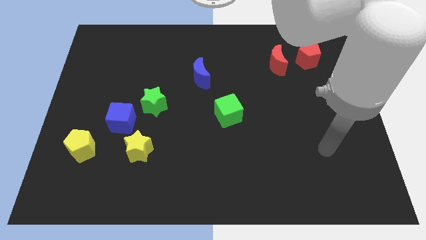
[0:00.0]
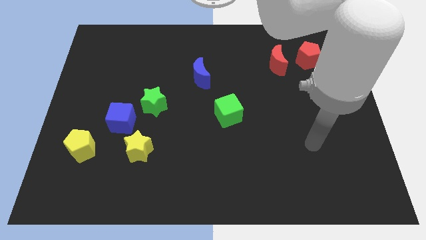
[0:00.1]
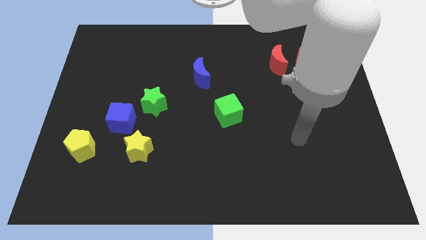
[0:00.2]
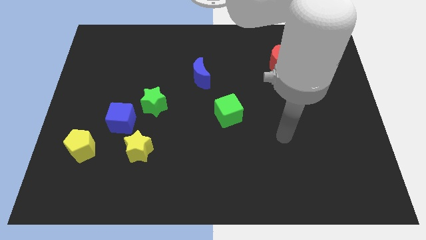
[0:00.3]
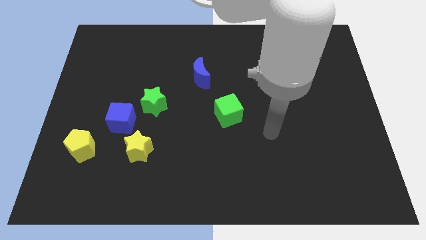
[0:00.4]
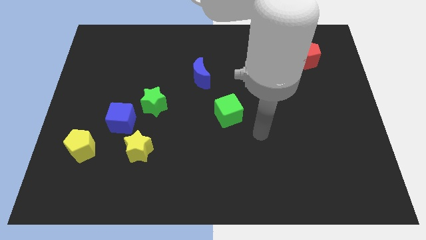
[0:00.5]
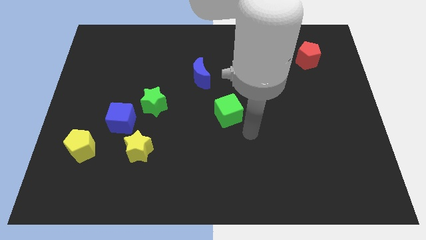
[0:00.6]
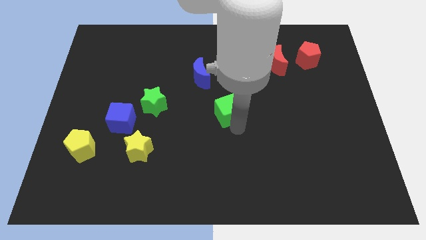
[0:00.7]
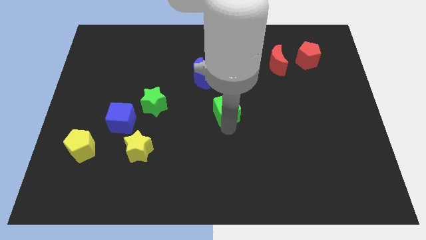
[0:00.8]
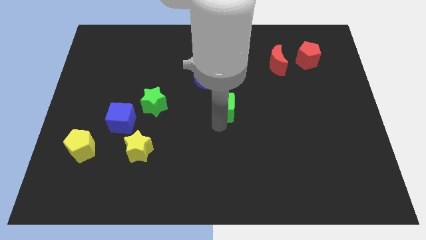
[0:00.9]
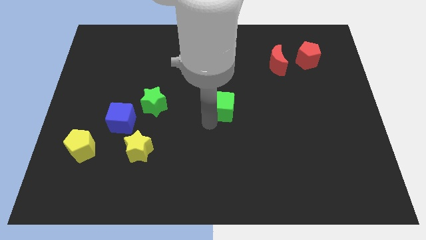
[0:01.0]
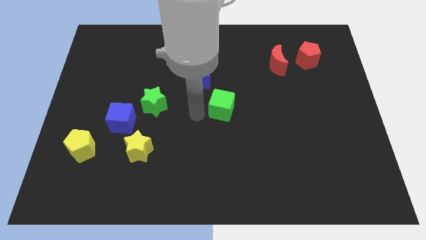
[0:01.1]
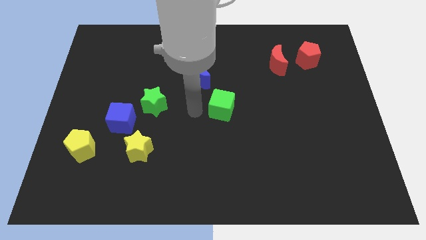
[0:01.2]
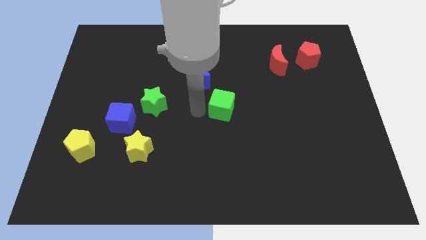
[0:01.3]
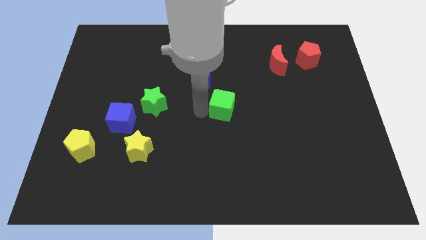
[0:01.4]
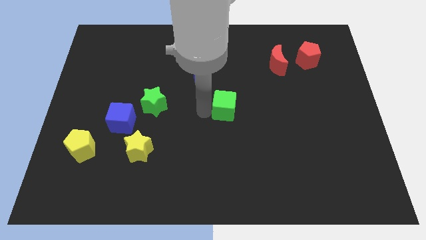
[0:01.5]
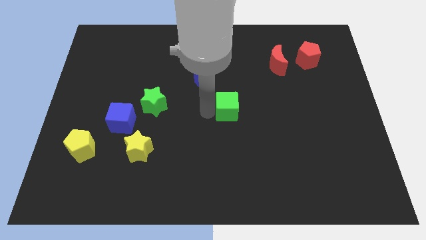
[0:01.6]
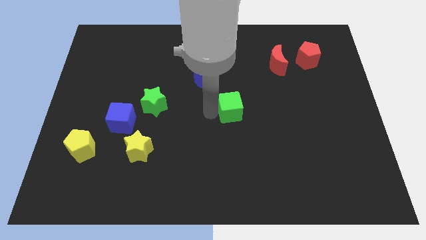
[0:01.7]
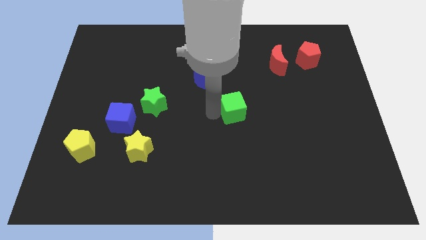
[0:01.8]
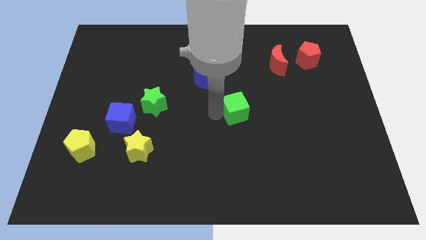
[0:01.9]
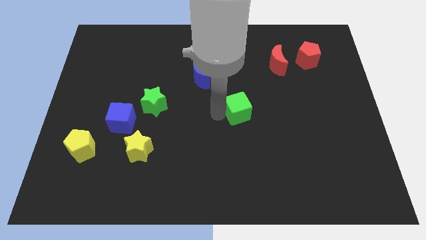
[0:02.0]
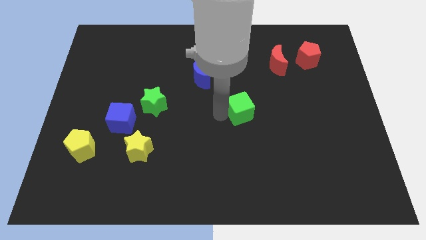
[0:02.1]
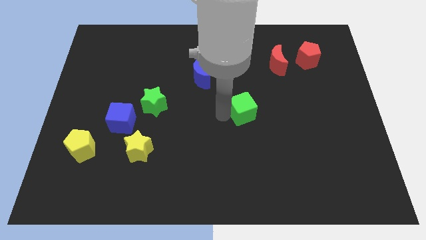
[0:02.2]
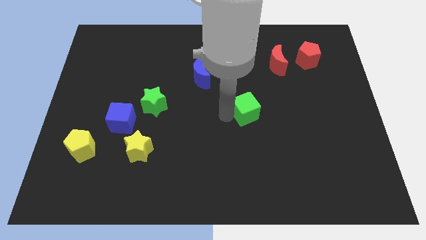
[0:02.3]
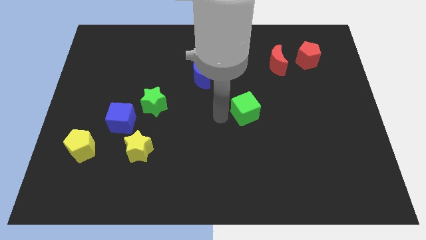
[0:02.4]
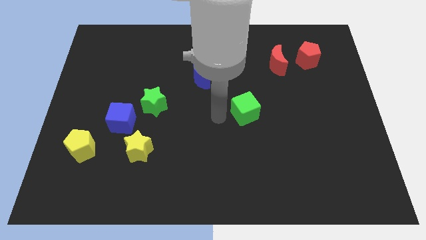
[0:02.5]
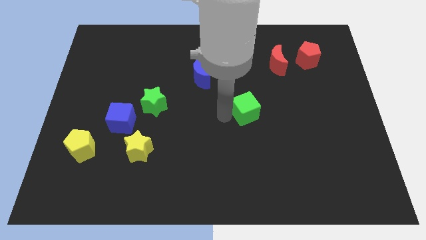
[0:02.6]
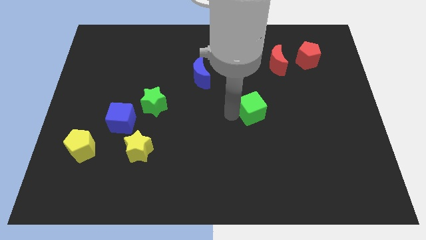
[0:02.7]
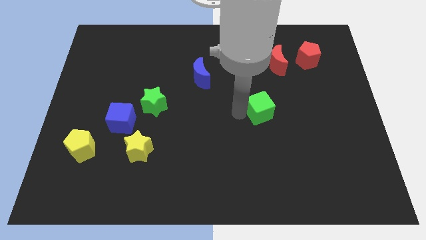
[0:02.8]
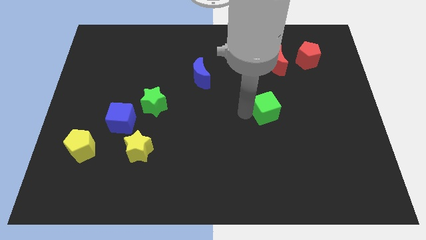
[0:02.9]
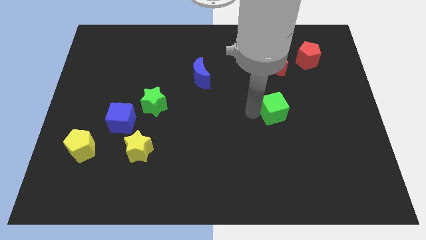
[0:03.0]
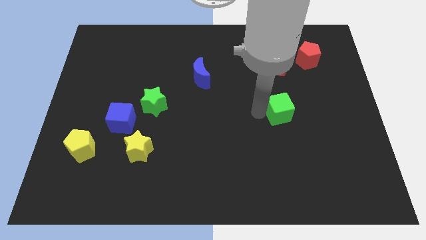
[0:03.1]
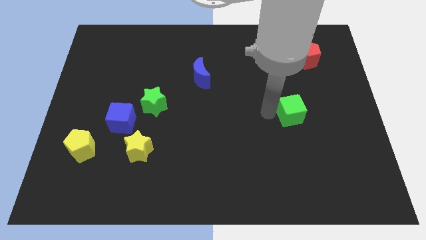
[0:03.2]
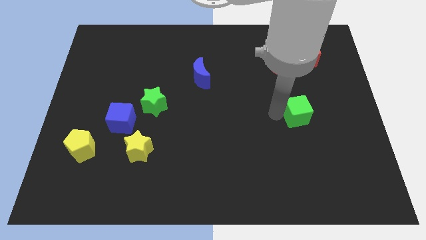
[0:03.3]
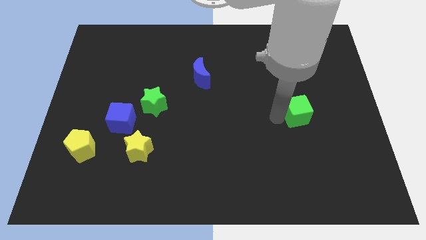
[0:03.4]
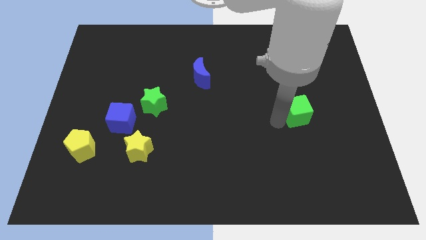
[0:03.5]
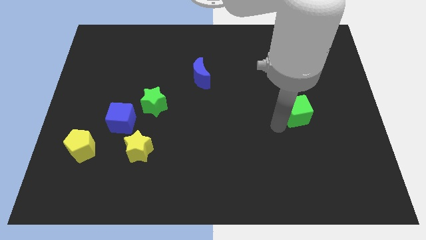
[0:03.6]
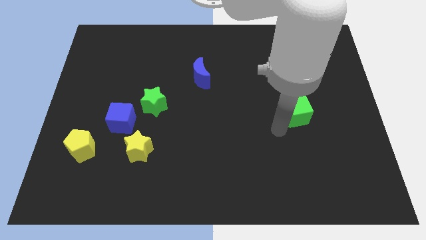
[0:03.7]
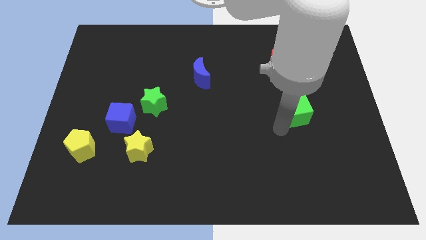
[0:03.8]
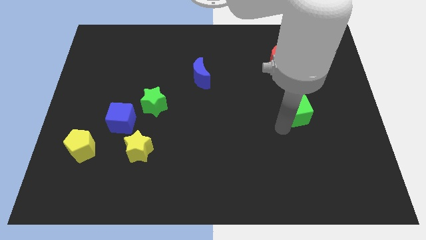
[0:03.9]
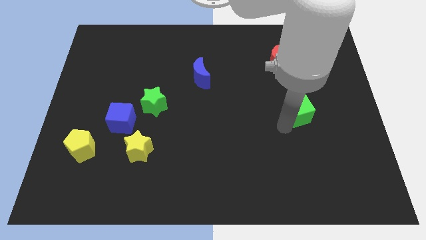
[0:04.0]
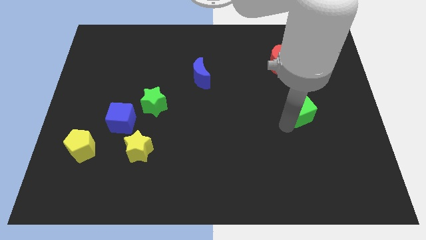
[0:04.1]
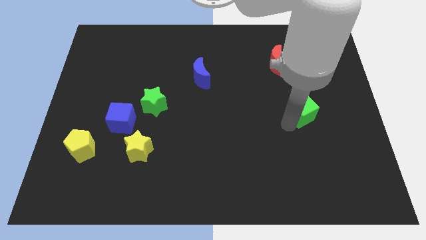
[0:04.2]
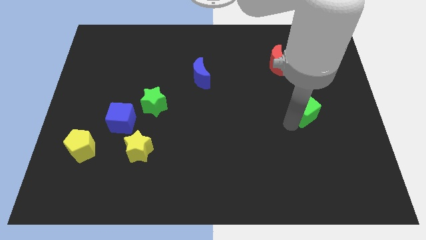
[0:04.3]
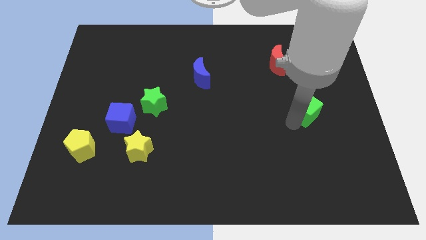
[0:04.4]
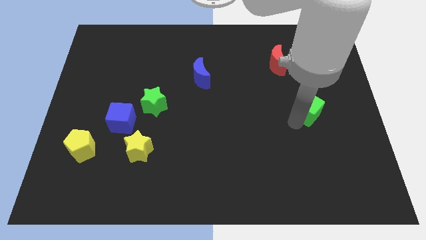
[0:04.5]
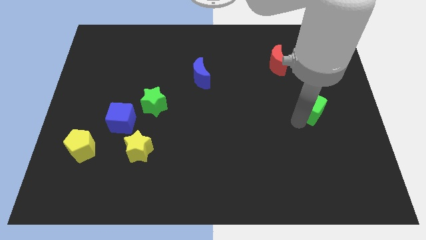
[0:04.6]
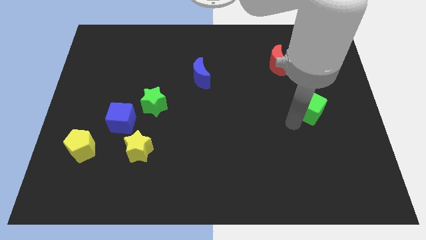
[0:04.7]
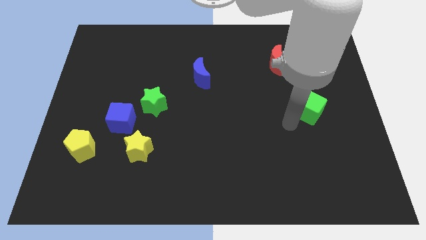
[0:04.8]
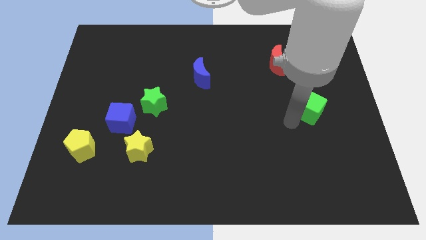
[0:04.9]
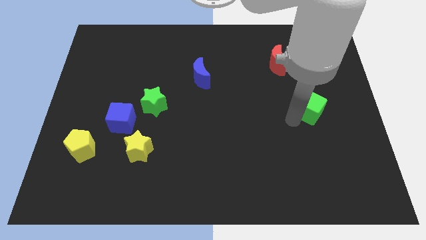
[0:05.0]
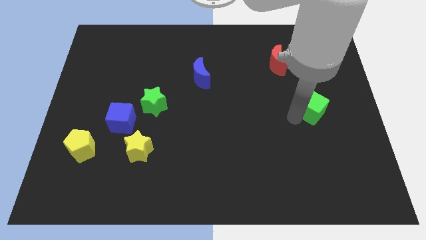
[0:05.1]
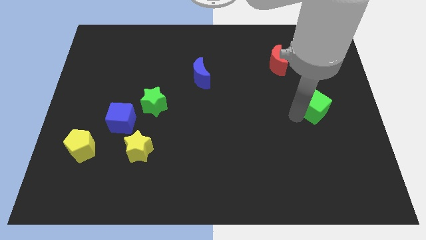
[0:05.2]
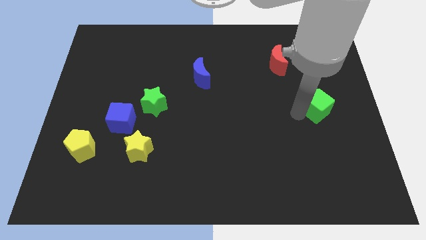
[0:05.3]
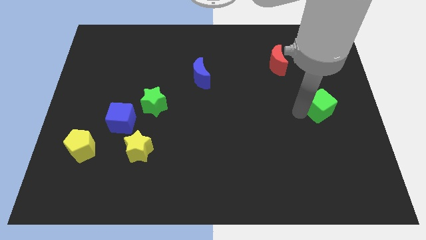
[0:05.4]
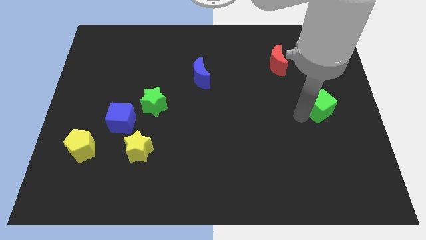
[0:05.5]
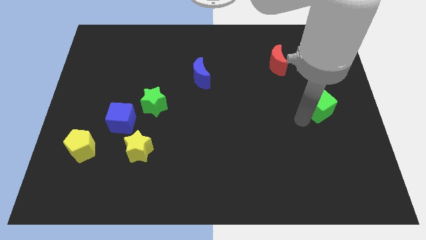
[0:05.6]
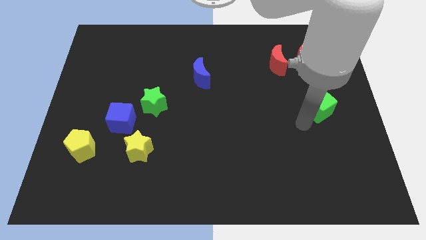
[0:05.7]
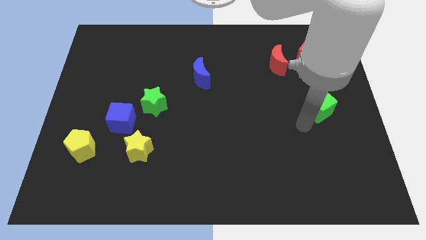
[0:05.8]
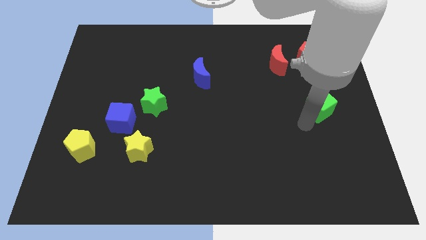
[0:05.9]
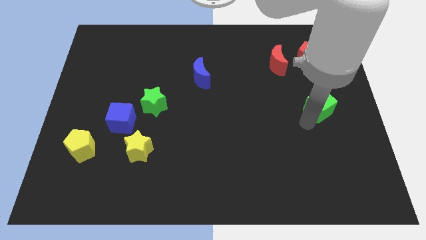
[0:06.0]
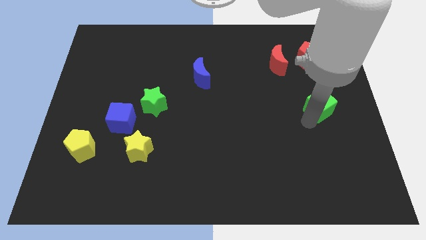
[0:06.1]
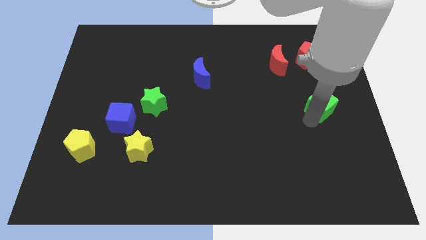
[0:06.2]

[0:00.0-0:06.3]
slide the green cube to the center right
